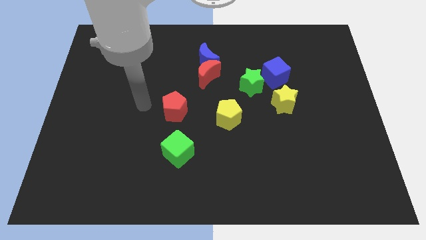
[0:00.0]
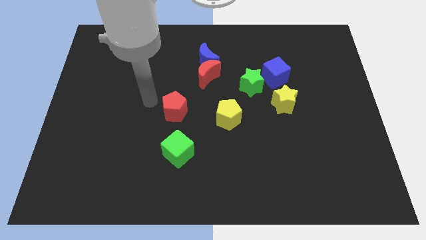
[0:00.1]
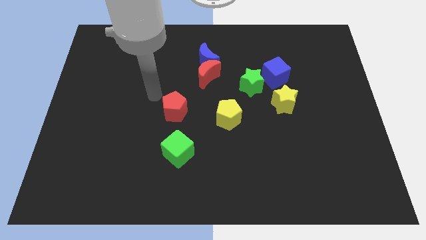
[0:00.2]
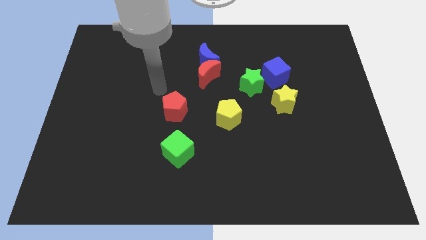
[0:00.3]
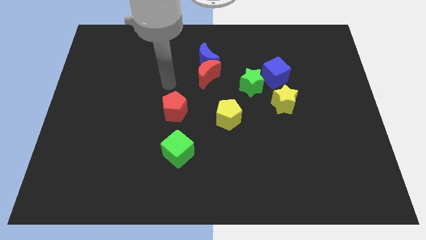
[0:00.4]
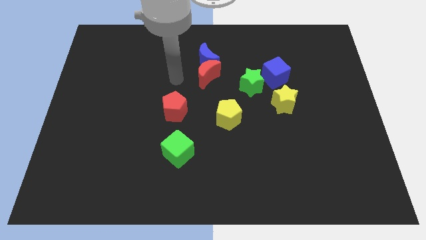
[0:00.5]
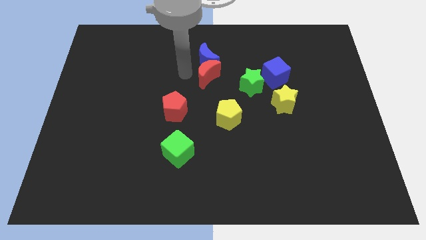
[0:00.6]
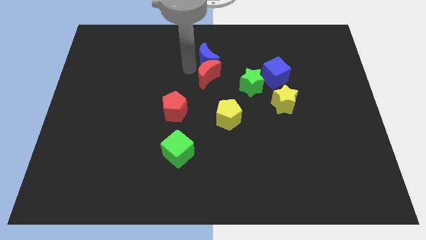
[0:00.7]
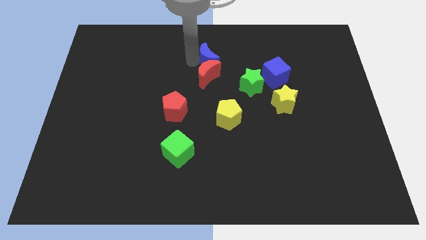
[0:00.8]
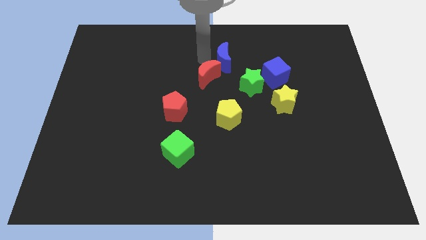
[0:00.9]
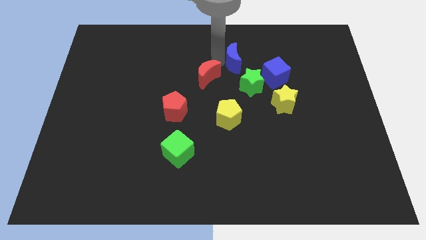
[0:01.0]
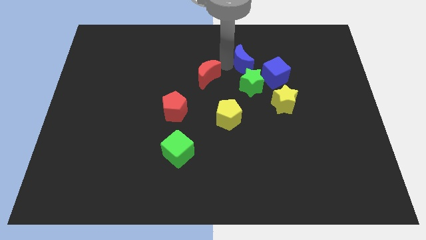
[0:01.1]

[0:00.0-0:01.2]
pull the red moon apart from the blue moon

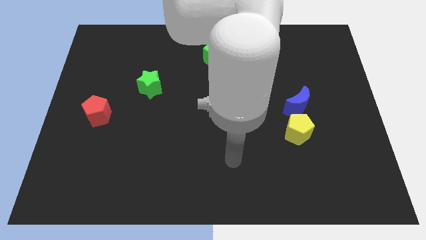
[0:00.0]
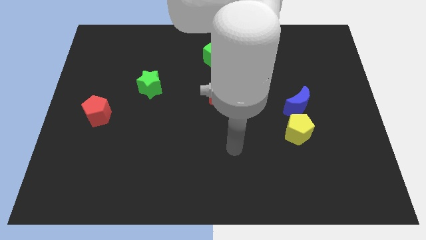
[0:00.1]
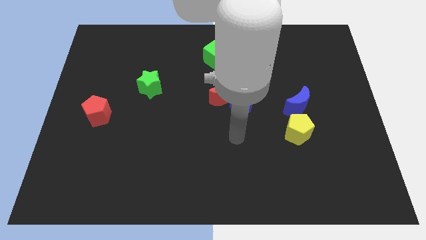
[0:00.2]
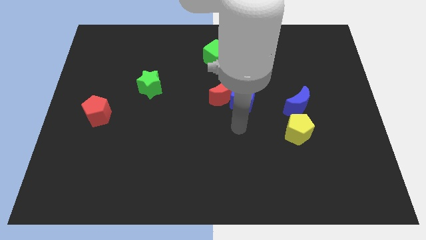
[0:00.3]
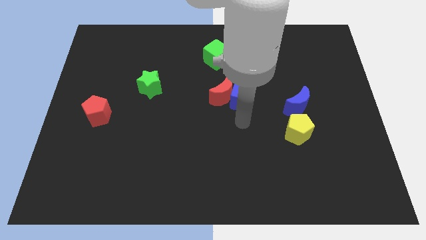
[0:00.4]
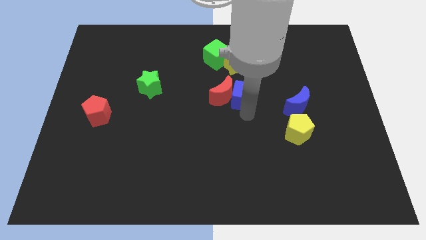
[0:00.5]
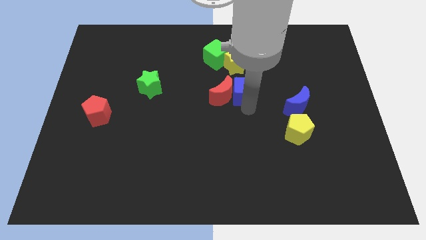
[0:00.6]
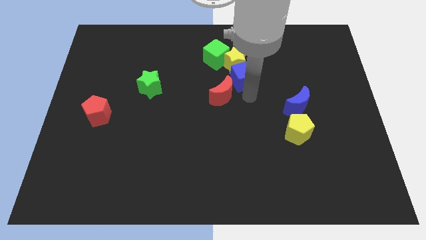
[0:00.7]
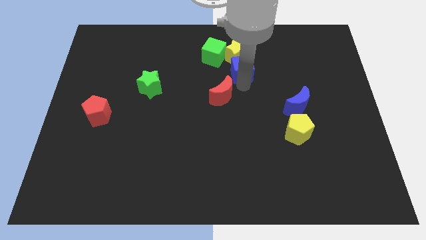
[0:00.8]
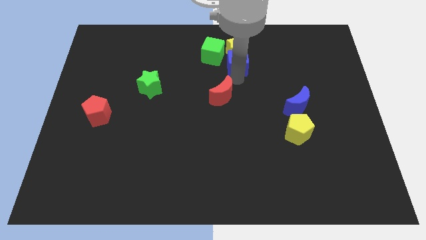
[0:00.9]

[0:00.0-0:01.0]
pull the red moon apart from the blue cube

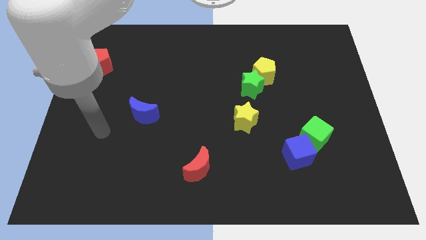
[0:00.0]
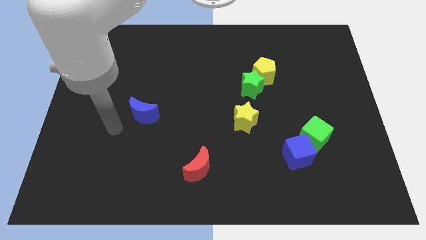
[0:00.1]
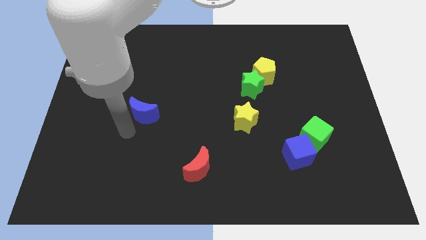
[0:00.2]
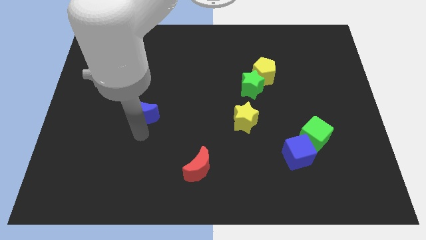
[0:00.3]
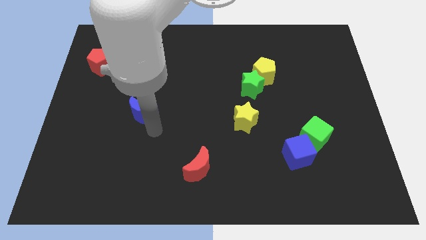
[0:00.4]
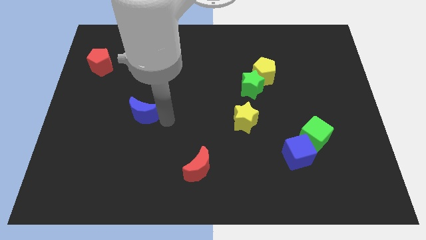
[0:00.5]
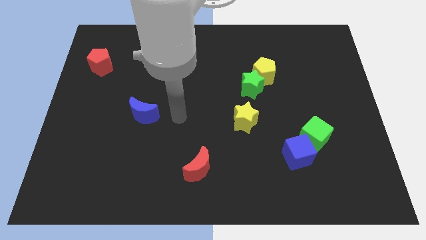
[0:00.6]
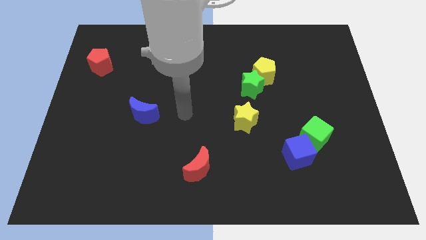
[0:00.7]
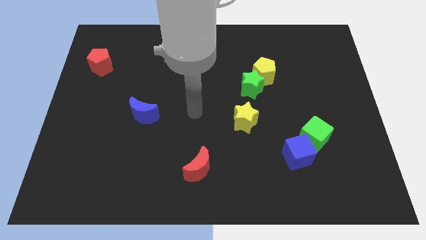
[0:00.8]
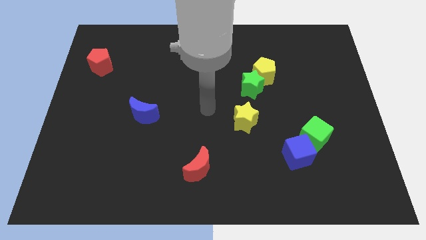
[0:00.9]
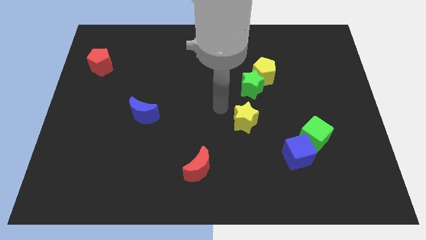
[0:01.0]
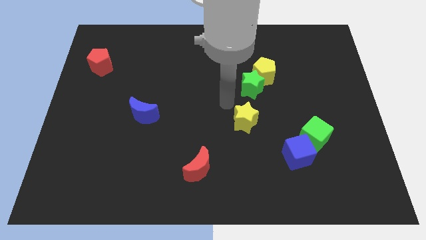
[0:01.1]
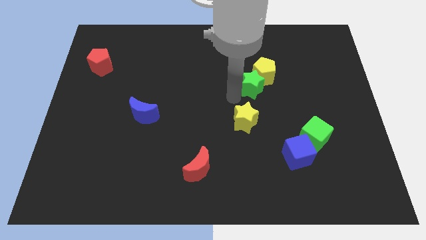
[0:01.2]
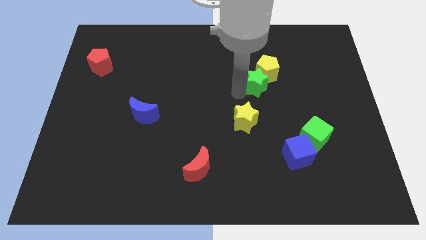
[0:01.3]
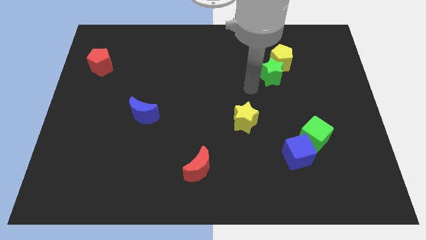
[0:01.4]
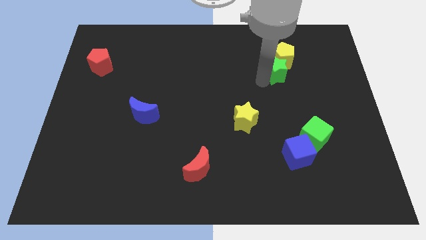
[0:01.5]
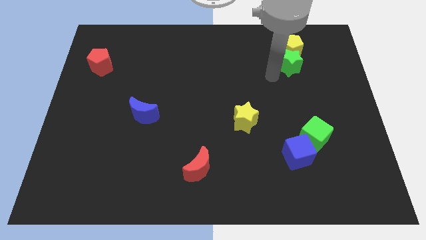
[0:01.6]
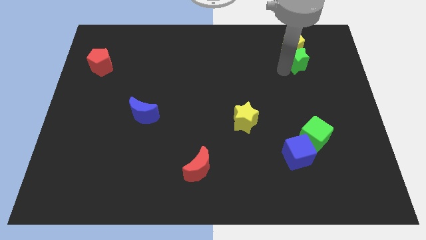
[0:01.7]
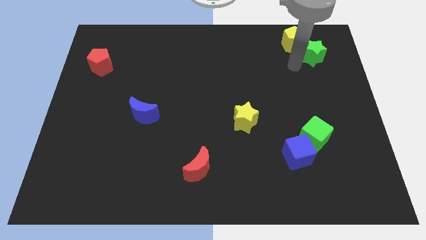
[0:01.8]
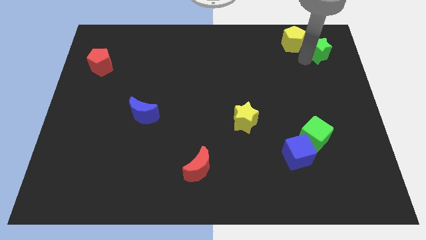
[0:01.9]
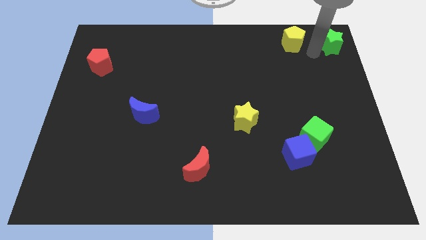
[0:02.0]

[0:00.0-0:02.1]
move the yellow pentagon away from the green star

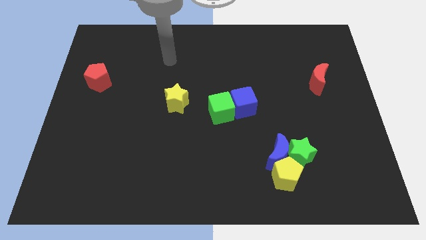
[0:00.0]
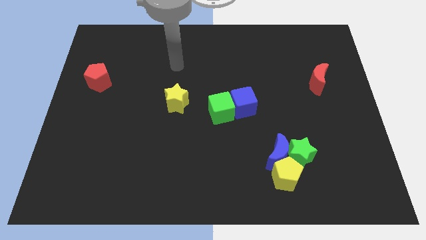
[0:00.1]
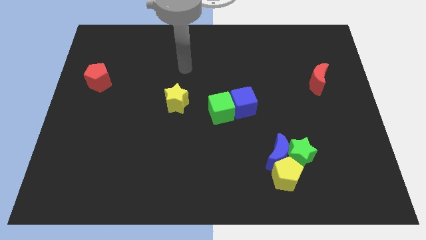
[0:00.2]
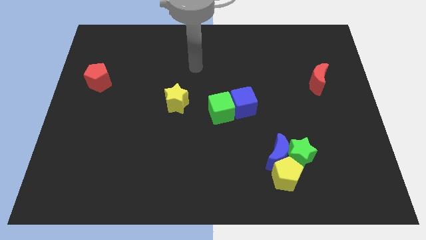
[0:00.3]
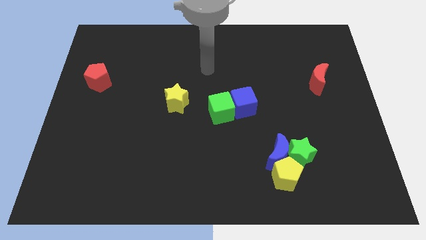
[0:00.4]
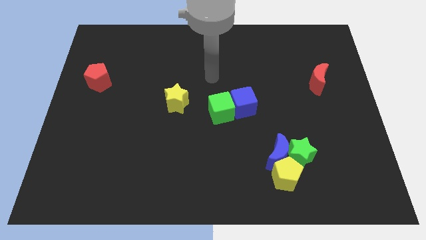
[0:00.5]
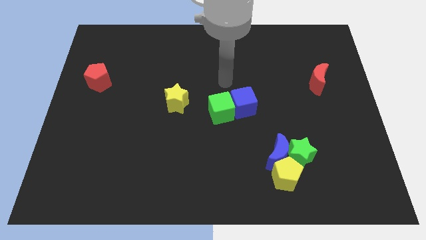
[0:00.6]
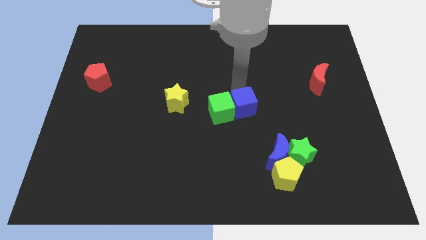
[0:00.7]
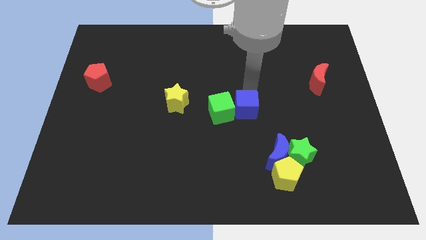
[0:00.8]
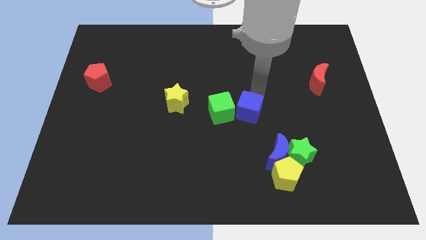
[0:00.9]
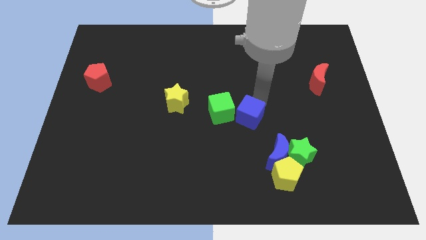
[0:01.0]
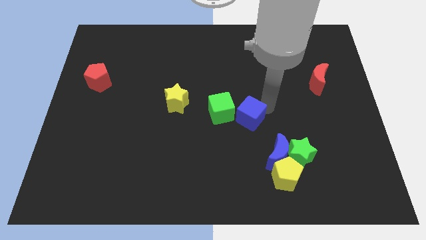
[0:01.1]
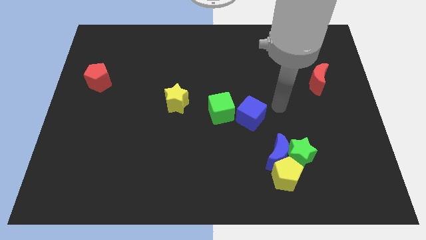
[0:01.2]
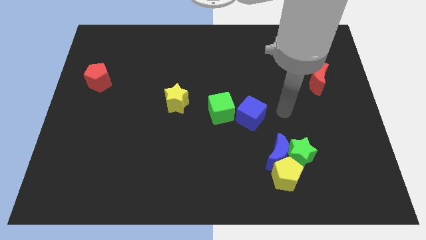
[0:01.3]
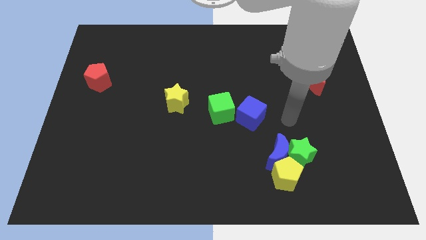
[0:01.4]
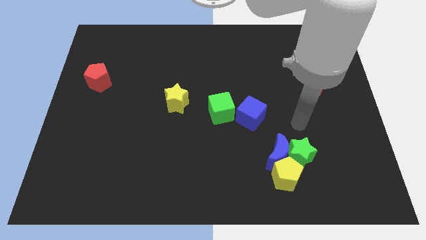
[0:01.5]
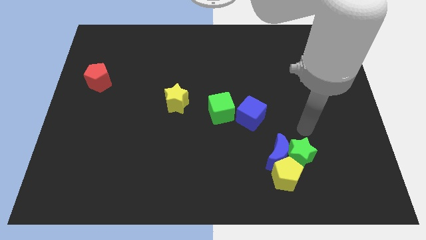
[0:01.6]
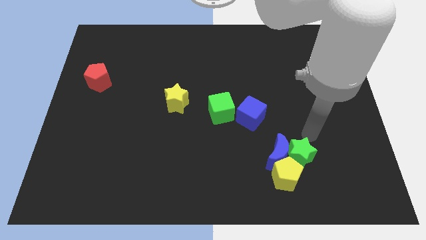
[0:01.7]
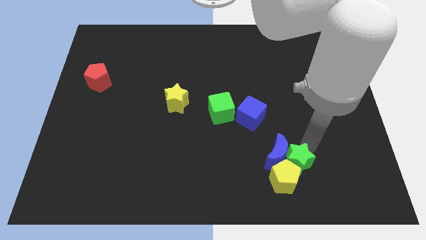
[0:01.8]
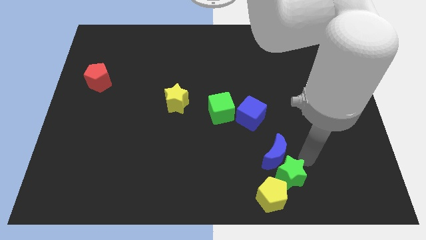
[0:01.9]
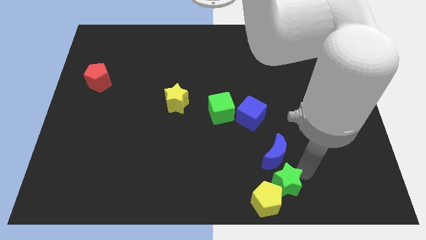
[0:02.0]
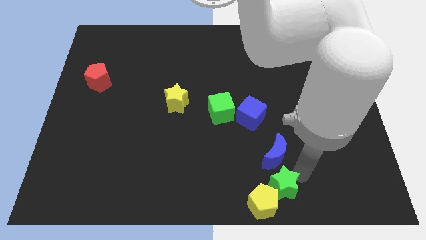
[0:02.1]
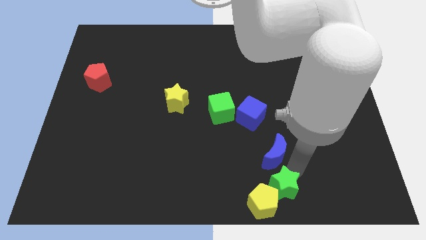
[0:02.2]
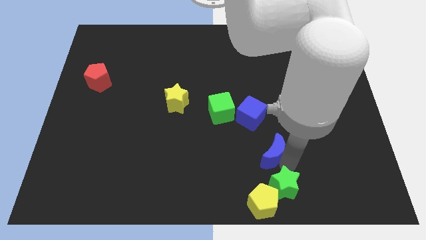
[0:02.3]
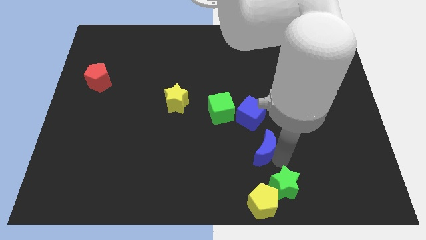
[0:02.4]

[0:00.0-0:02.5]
move the blue moon away from the green star and yellow pentagon

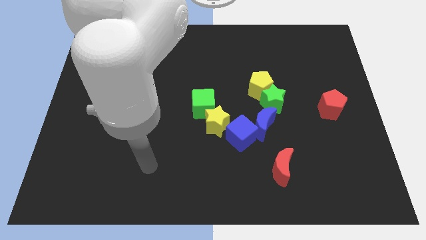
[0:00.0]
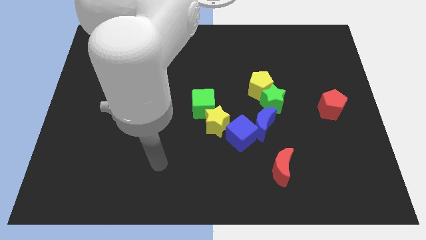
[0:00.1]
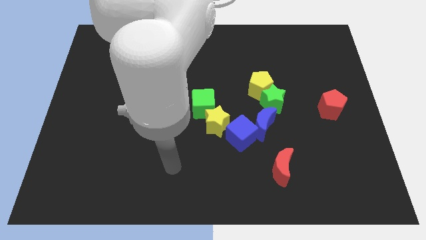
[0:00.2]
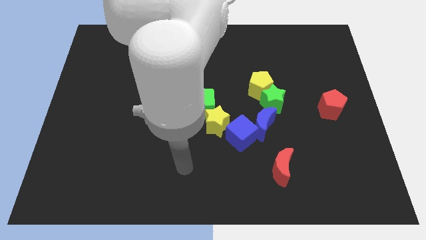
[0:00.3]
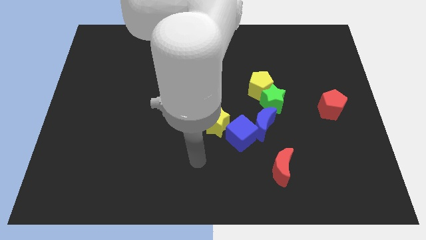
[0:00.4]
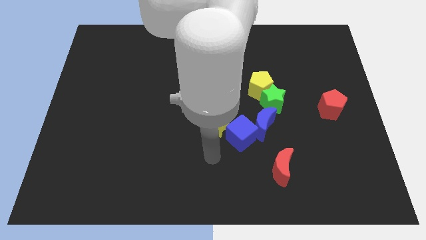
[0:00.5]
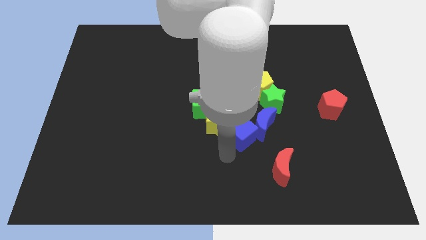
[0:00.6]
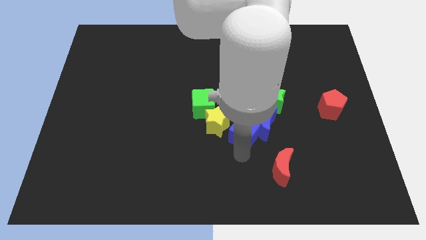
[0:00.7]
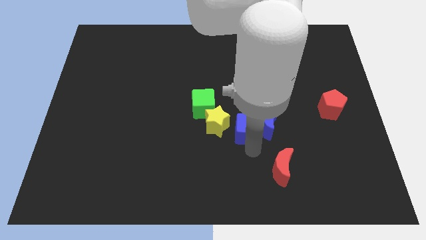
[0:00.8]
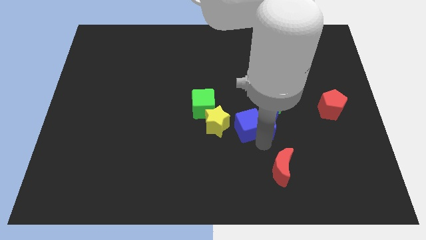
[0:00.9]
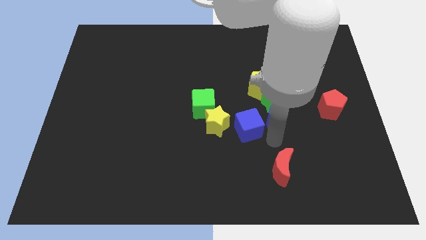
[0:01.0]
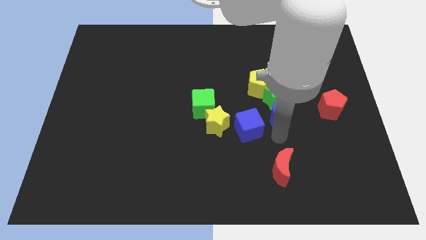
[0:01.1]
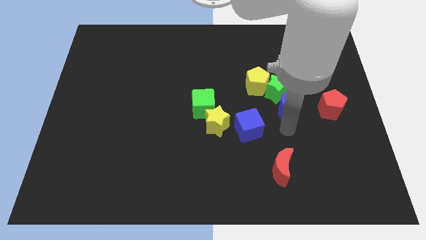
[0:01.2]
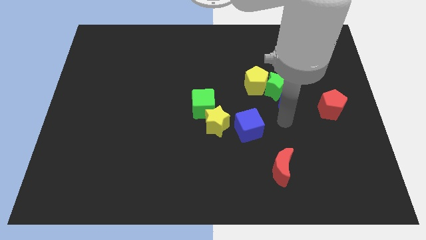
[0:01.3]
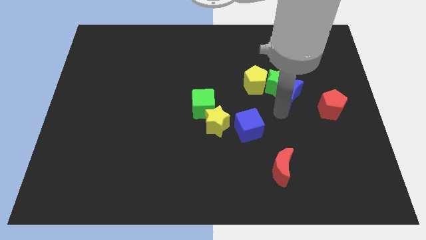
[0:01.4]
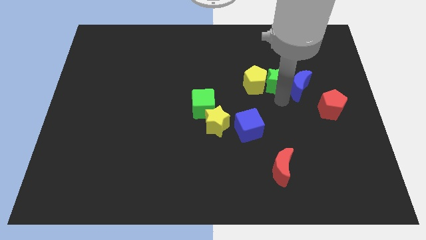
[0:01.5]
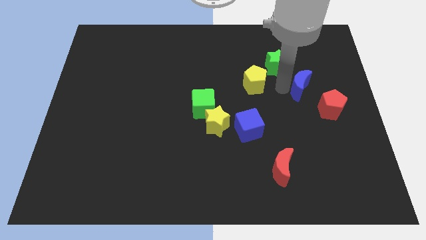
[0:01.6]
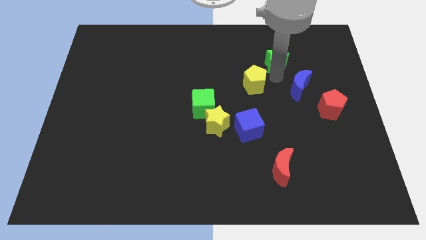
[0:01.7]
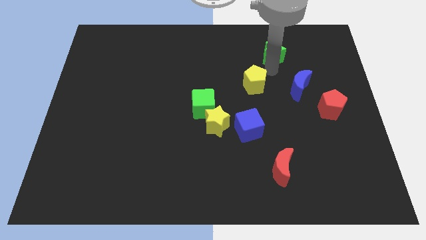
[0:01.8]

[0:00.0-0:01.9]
separate the yellow pentagon from the green star

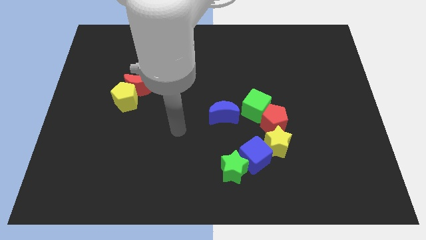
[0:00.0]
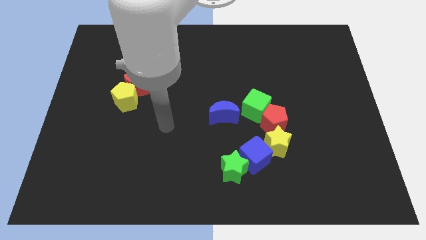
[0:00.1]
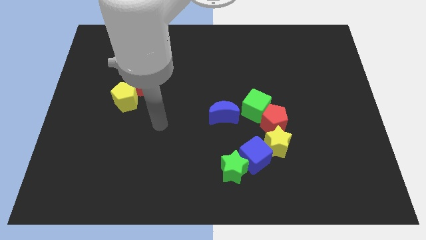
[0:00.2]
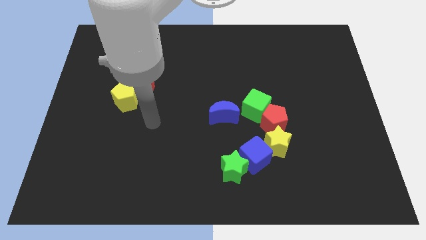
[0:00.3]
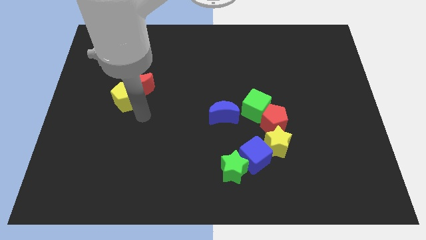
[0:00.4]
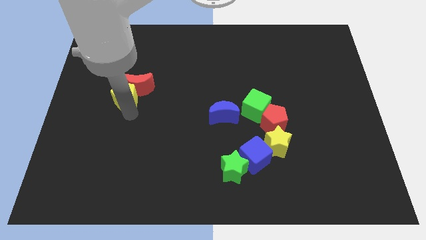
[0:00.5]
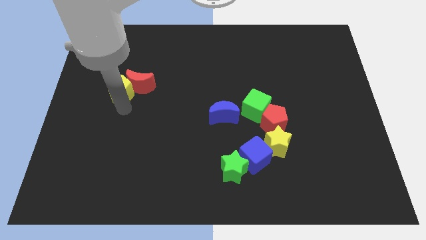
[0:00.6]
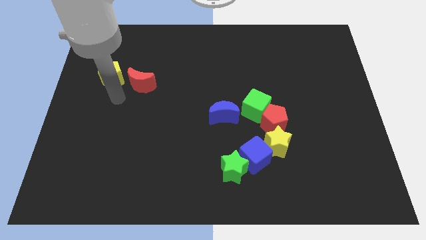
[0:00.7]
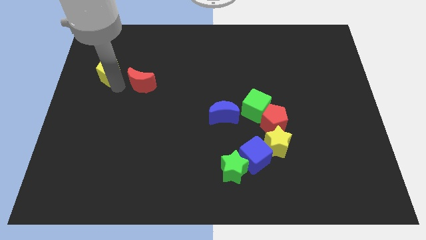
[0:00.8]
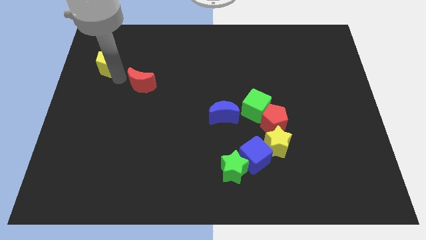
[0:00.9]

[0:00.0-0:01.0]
pull the red moon apart from the yellow pentagon
